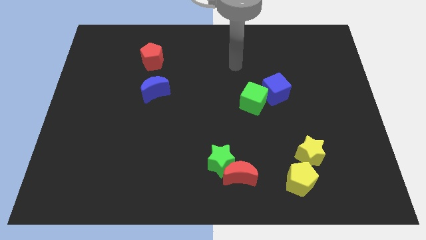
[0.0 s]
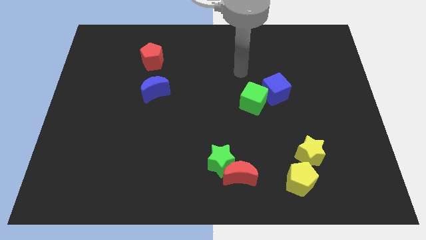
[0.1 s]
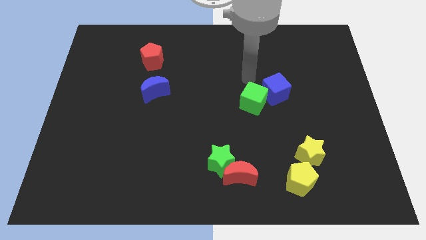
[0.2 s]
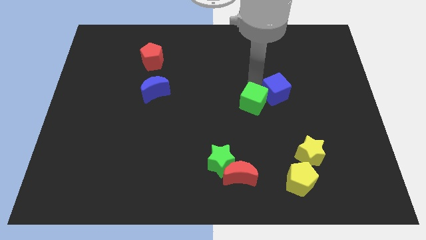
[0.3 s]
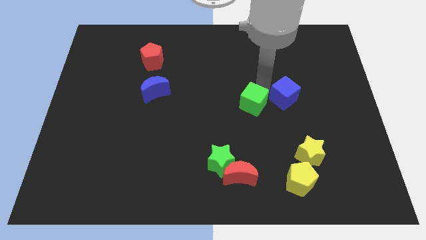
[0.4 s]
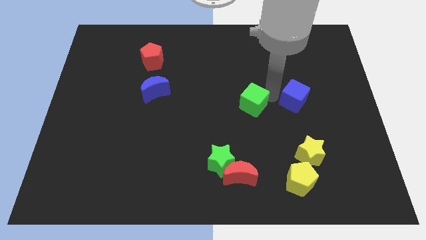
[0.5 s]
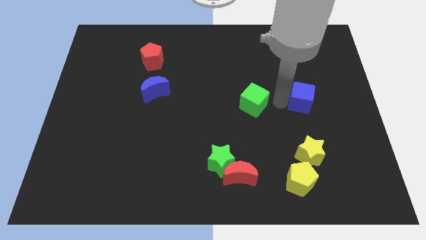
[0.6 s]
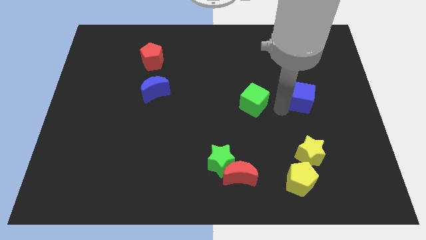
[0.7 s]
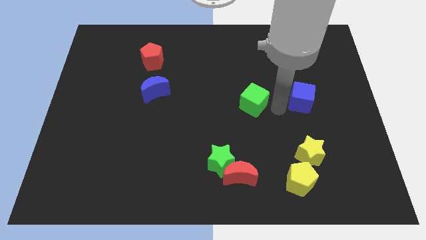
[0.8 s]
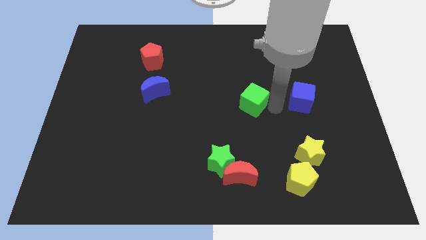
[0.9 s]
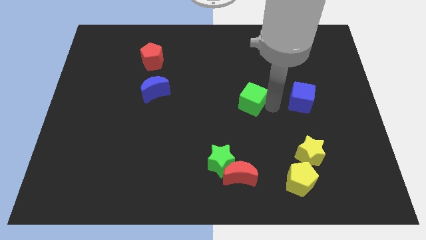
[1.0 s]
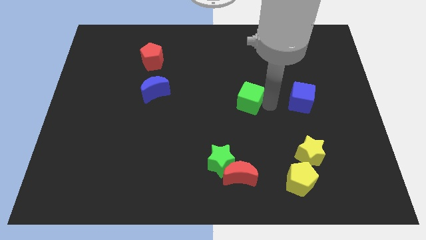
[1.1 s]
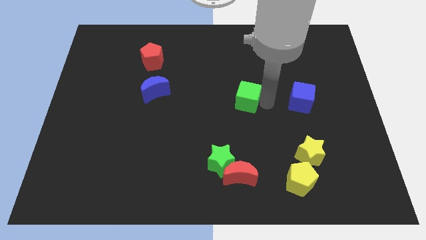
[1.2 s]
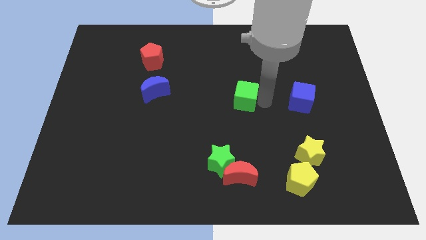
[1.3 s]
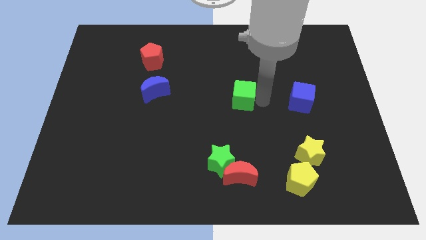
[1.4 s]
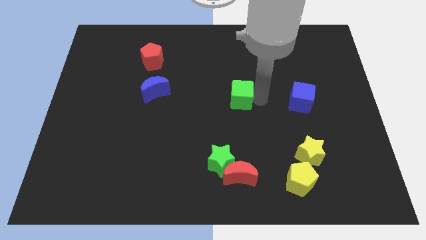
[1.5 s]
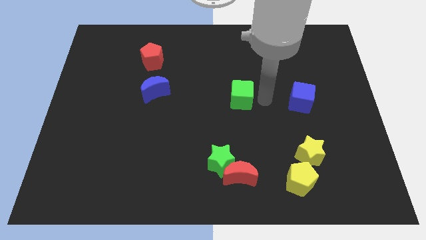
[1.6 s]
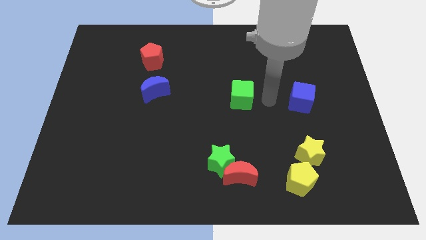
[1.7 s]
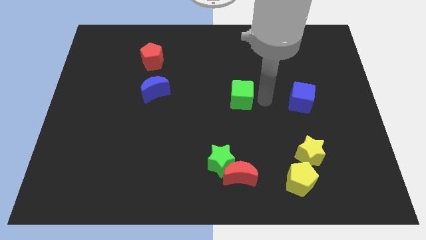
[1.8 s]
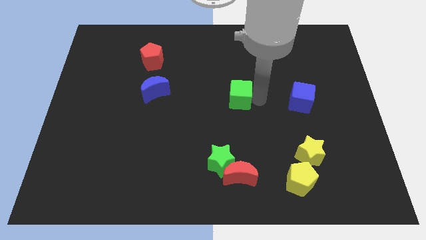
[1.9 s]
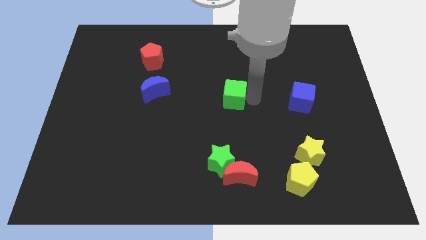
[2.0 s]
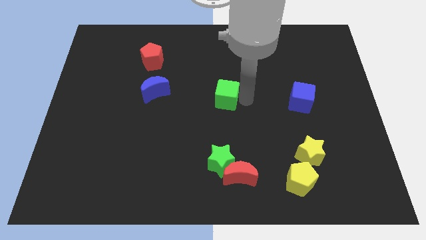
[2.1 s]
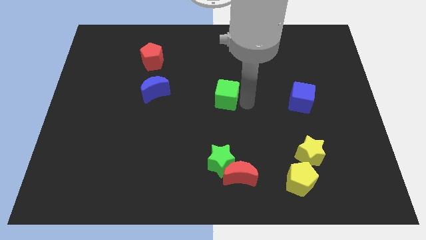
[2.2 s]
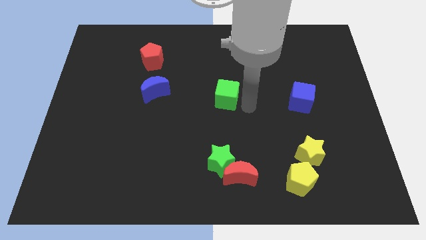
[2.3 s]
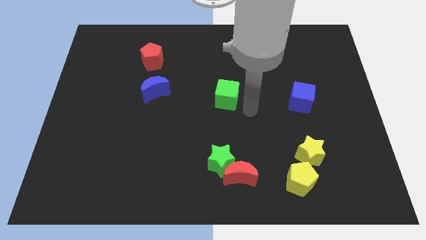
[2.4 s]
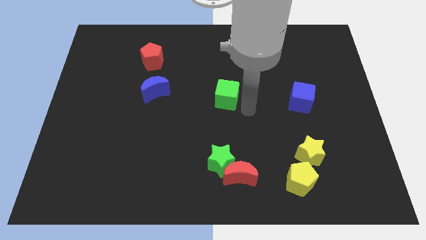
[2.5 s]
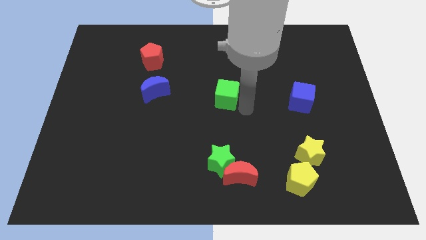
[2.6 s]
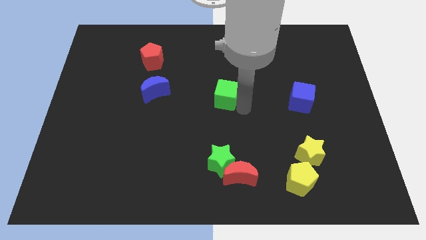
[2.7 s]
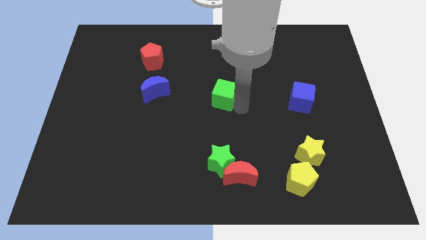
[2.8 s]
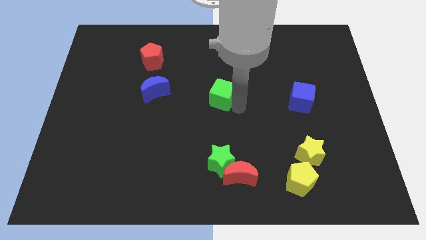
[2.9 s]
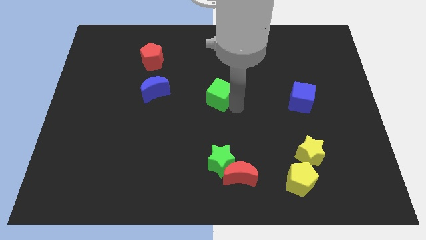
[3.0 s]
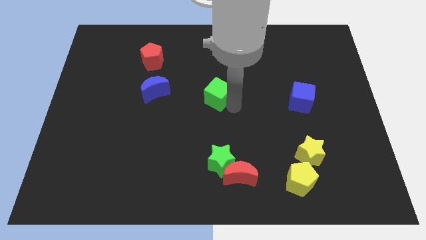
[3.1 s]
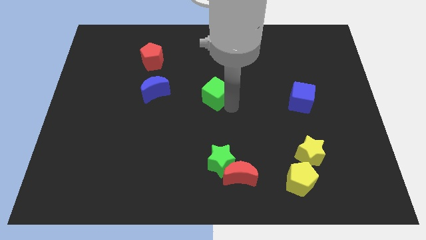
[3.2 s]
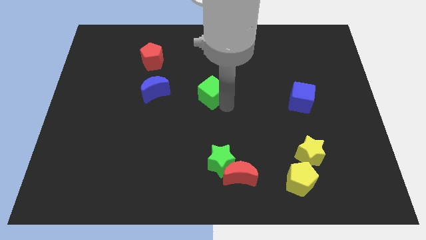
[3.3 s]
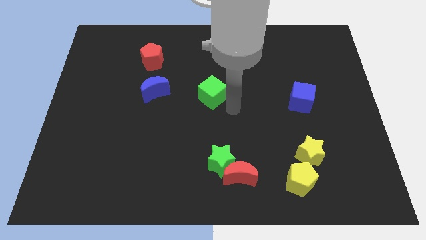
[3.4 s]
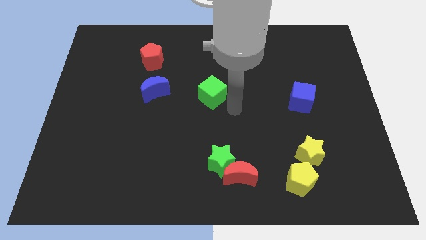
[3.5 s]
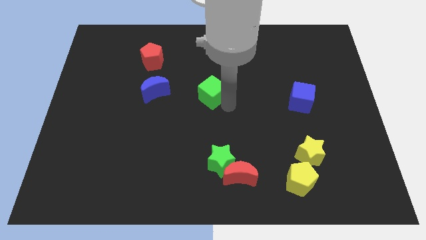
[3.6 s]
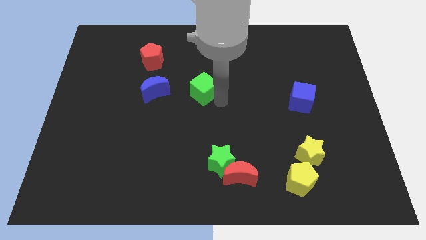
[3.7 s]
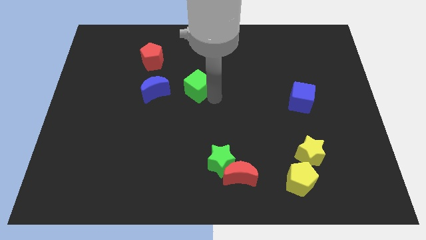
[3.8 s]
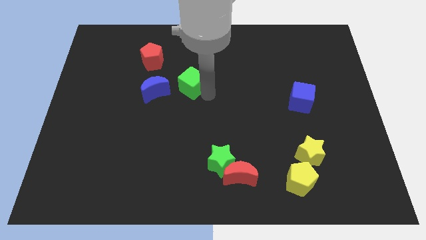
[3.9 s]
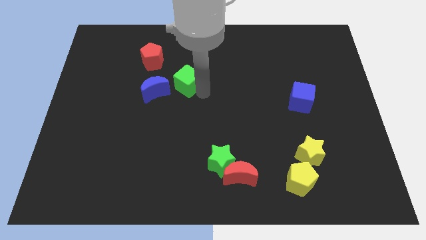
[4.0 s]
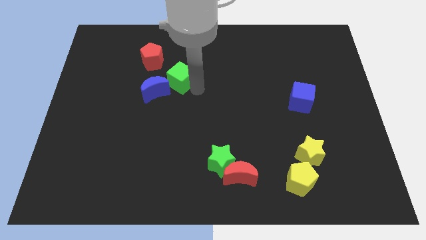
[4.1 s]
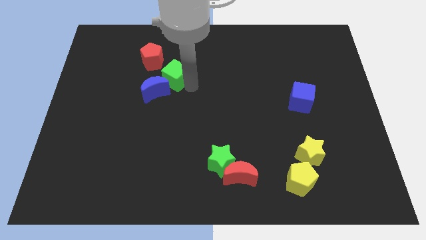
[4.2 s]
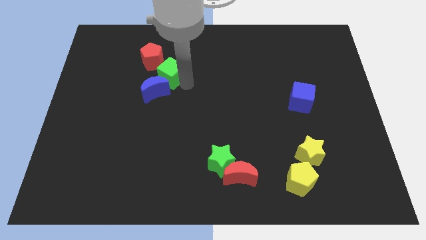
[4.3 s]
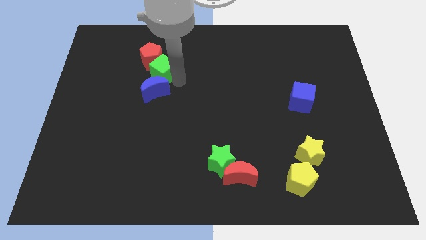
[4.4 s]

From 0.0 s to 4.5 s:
put the green cube to the red pentagon

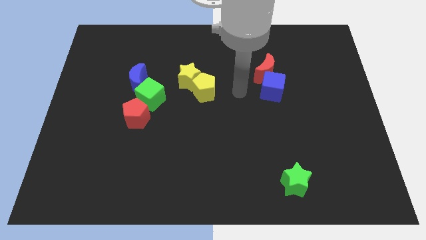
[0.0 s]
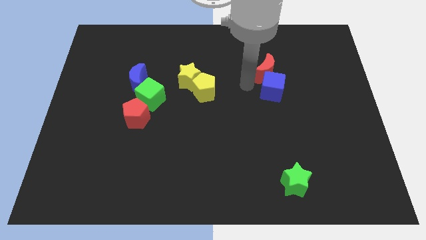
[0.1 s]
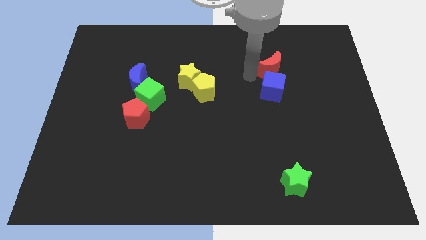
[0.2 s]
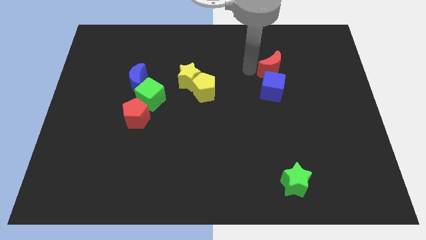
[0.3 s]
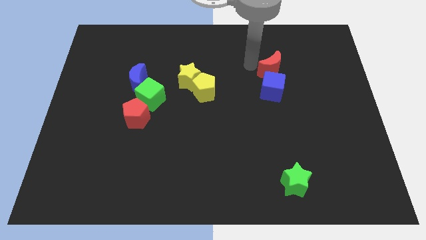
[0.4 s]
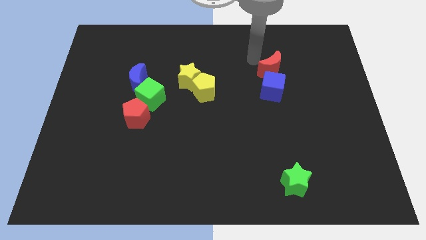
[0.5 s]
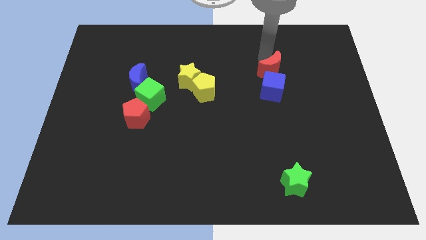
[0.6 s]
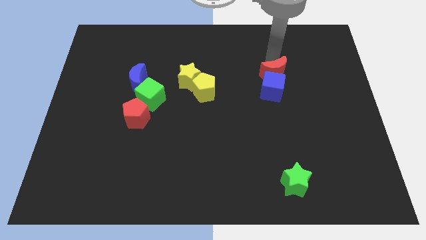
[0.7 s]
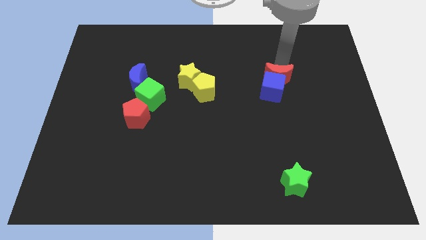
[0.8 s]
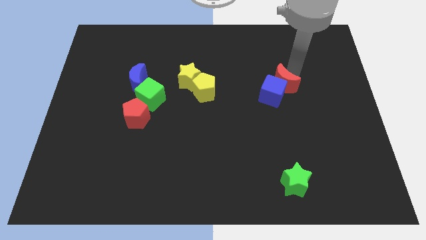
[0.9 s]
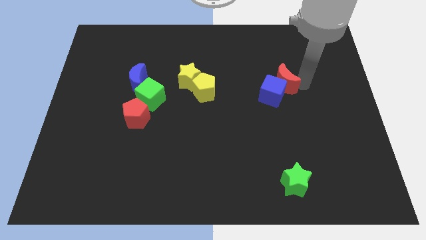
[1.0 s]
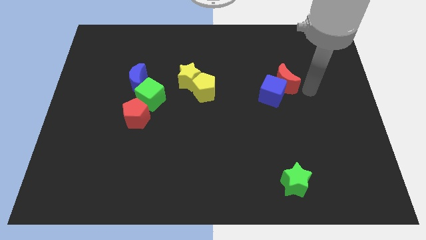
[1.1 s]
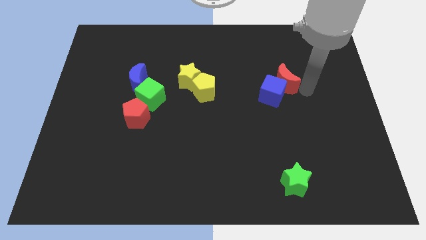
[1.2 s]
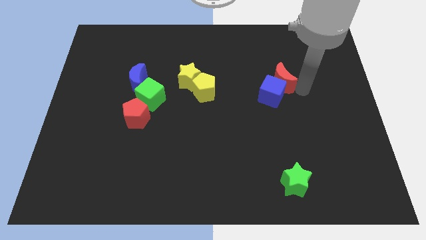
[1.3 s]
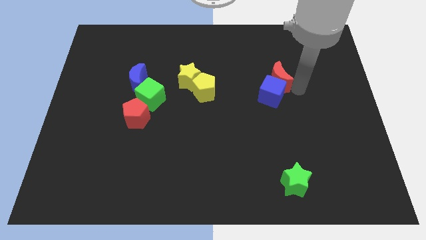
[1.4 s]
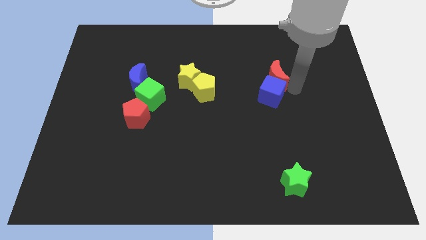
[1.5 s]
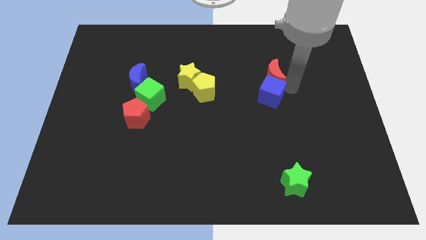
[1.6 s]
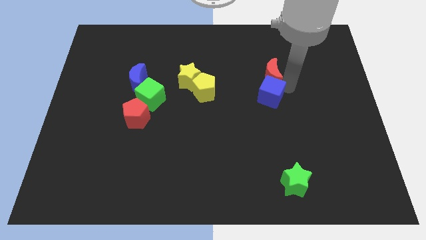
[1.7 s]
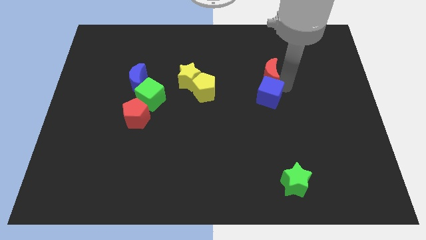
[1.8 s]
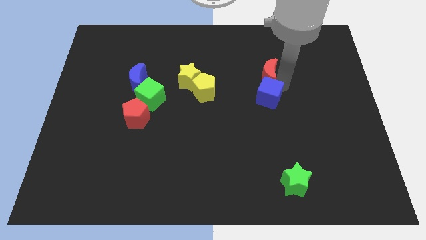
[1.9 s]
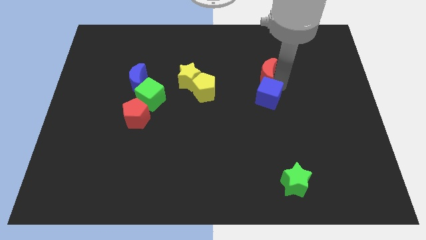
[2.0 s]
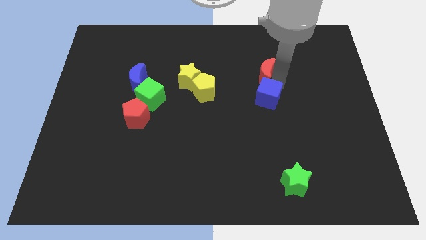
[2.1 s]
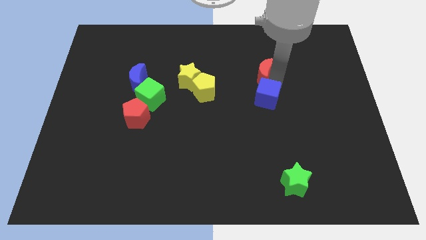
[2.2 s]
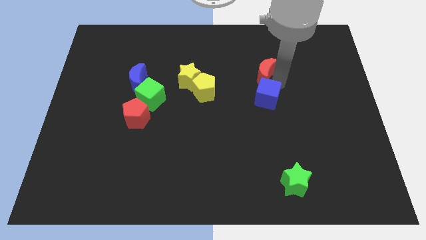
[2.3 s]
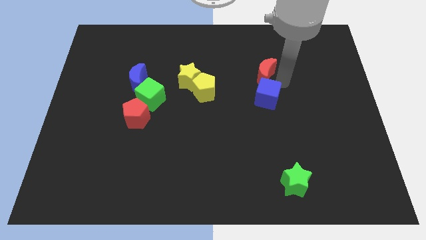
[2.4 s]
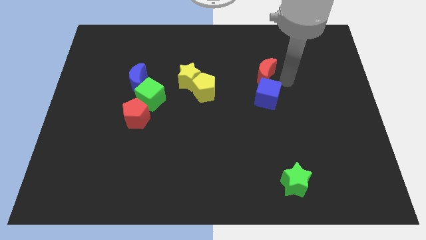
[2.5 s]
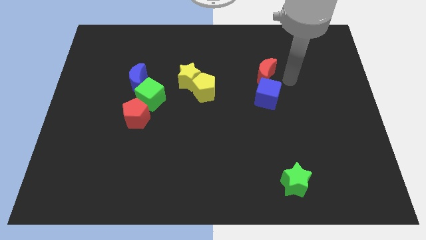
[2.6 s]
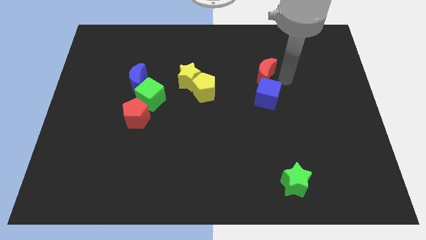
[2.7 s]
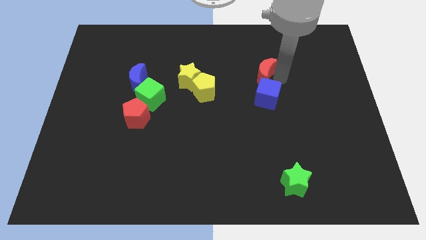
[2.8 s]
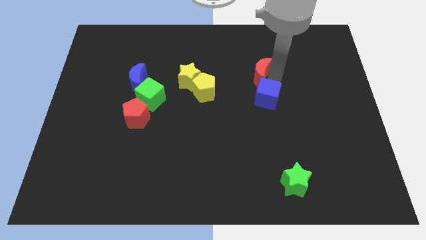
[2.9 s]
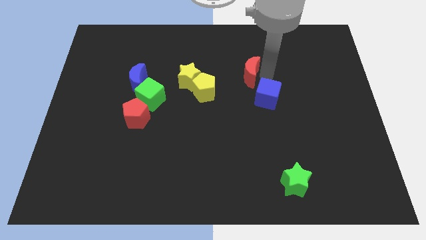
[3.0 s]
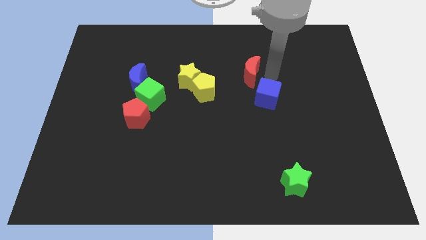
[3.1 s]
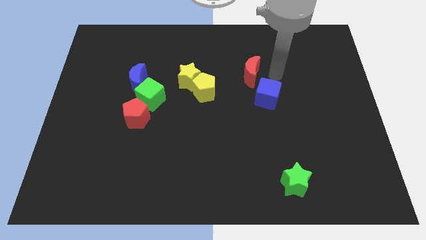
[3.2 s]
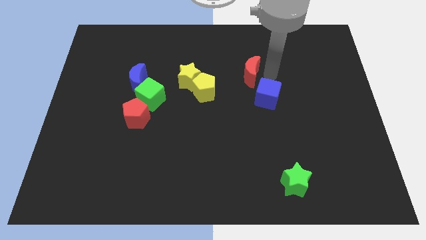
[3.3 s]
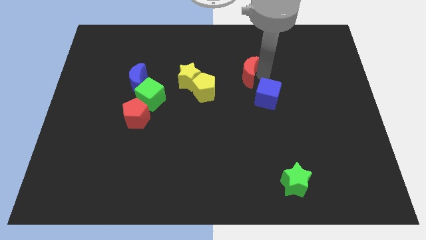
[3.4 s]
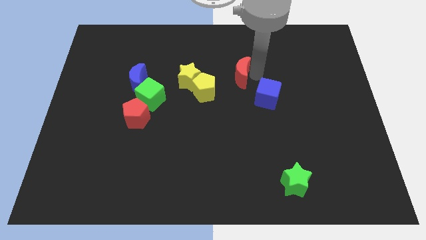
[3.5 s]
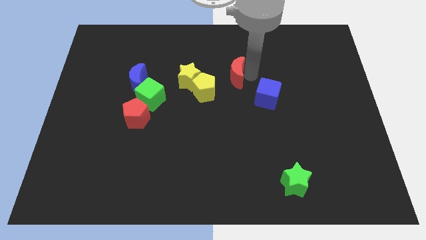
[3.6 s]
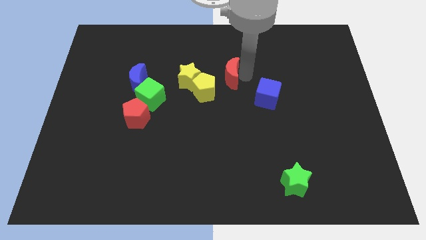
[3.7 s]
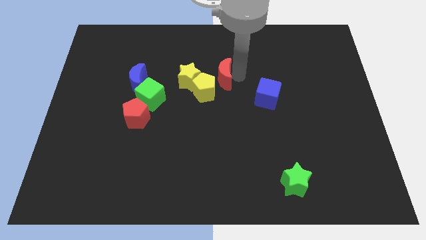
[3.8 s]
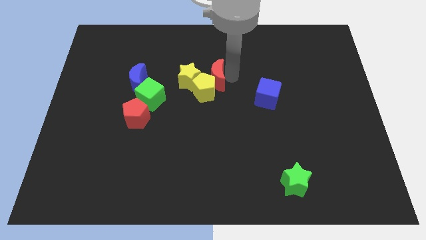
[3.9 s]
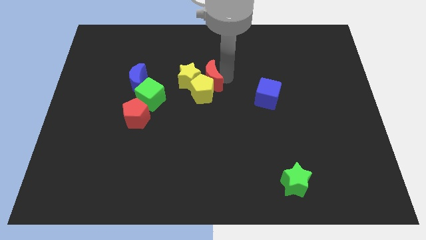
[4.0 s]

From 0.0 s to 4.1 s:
move the red moon next to the yellow star
